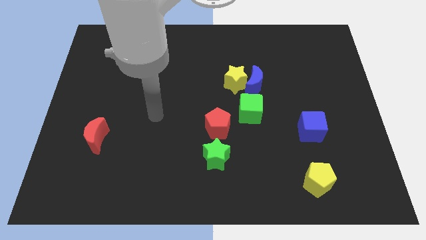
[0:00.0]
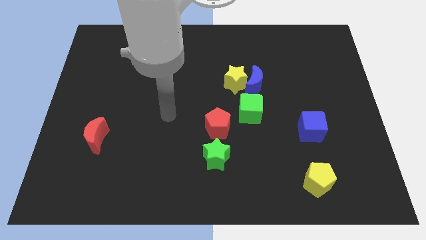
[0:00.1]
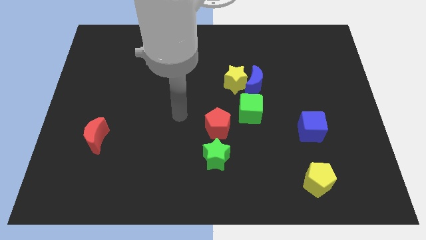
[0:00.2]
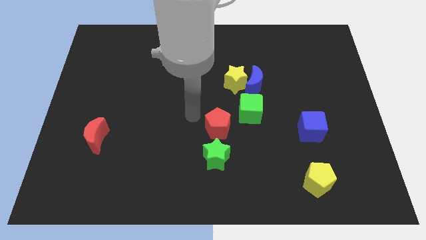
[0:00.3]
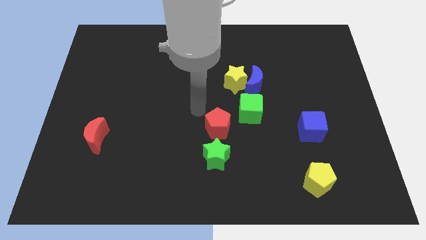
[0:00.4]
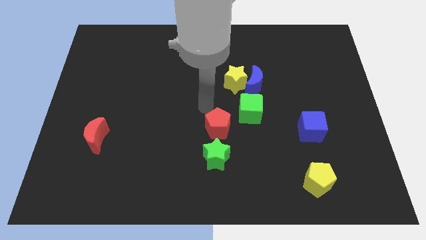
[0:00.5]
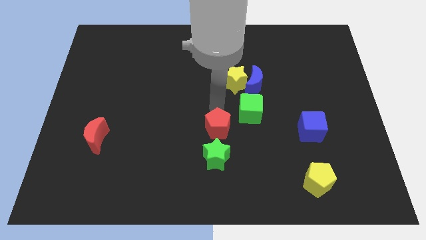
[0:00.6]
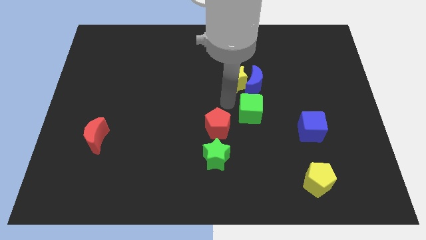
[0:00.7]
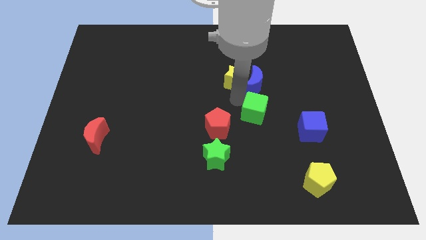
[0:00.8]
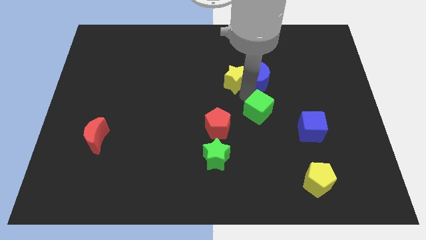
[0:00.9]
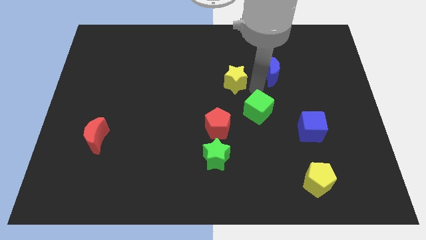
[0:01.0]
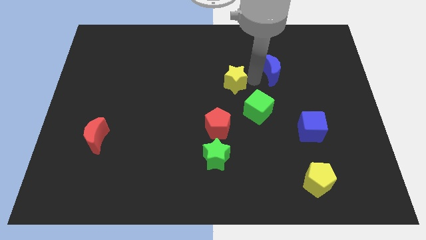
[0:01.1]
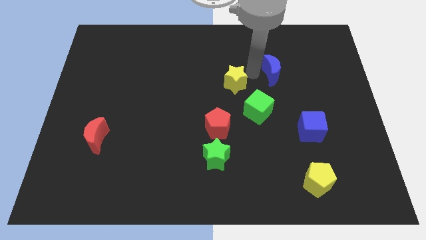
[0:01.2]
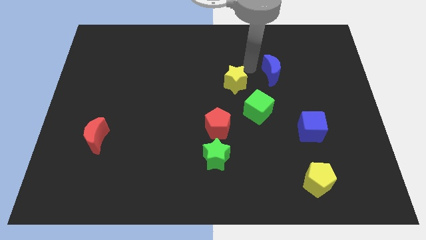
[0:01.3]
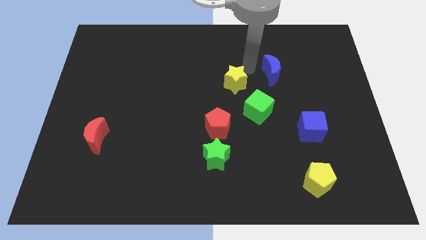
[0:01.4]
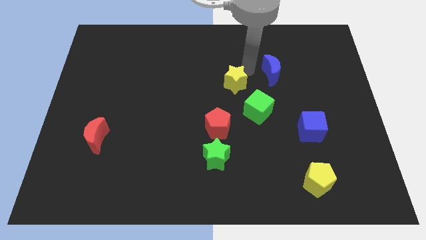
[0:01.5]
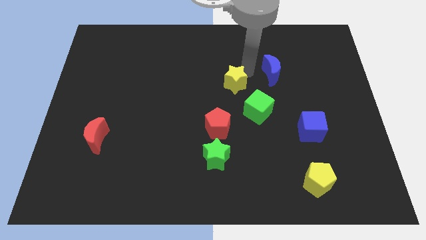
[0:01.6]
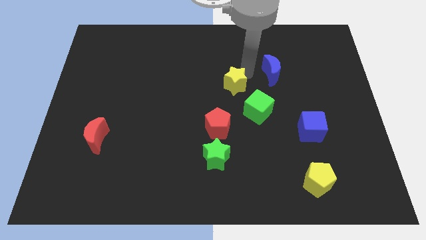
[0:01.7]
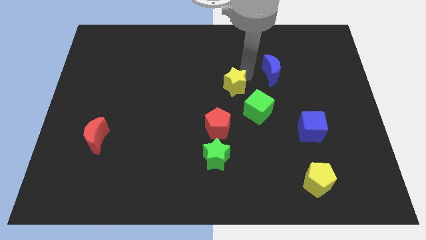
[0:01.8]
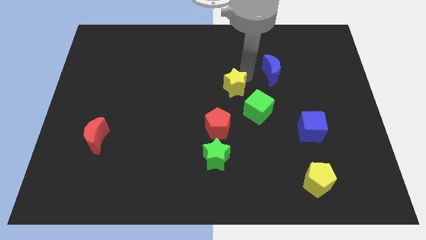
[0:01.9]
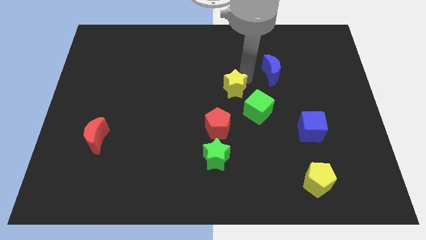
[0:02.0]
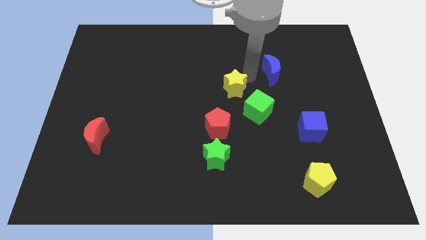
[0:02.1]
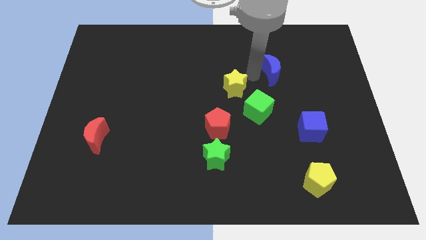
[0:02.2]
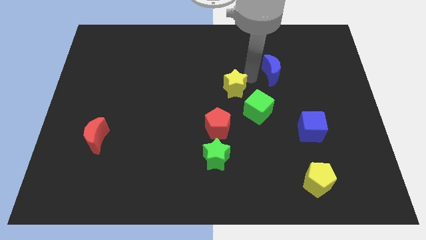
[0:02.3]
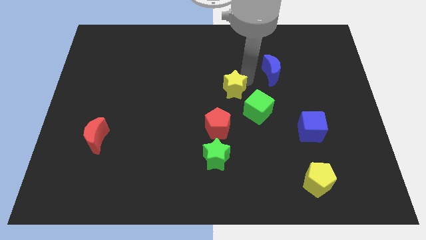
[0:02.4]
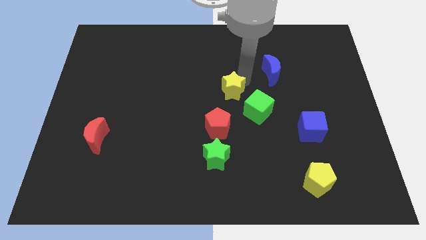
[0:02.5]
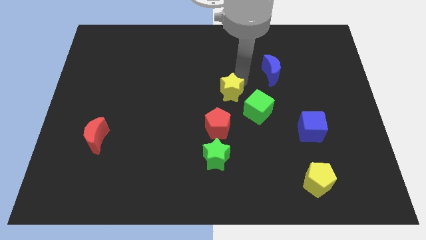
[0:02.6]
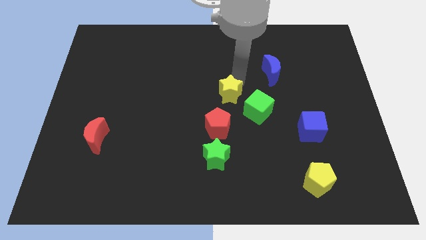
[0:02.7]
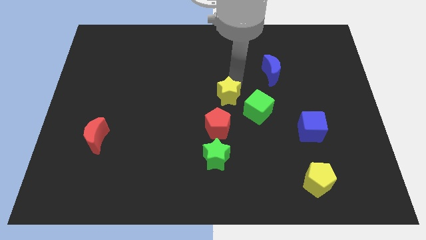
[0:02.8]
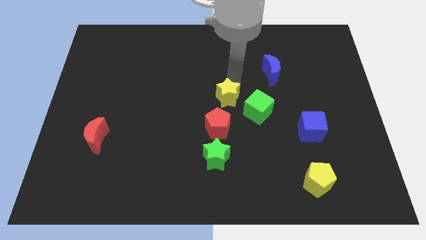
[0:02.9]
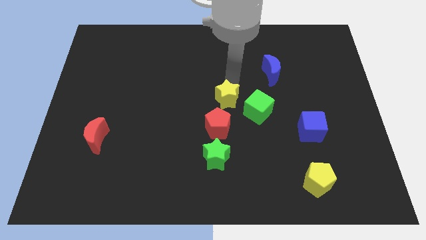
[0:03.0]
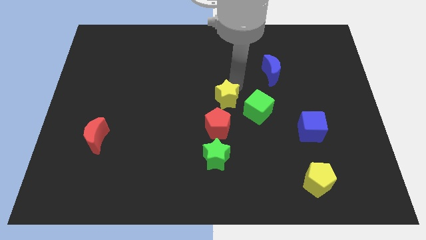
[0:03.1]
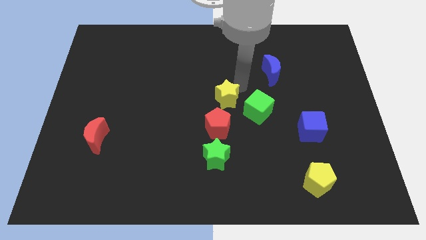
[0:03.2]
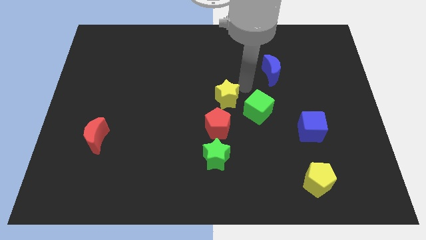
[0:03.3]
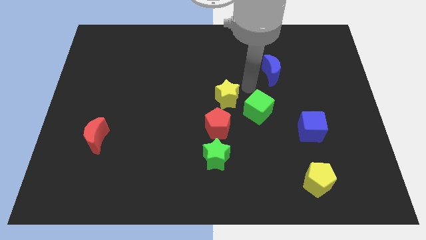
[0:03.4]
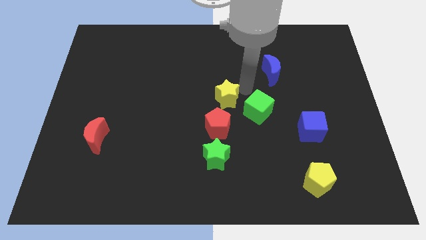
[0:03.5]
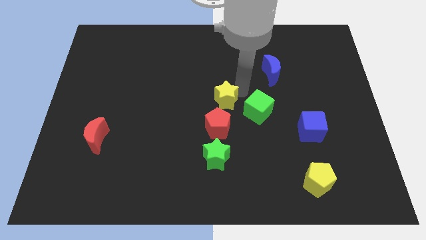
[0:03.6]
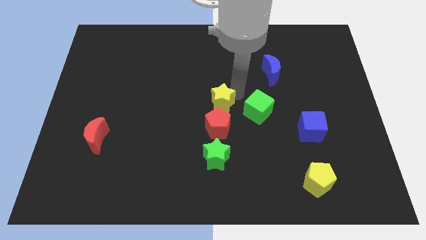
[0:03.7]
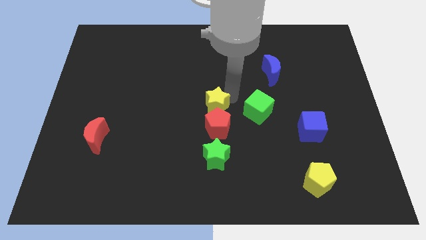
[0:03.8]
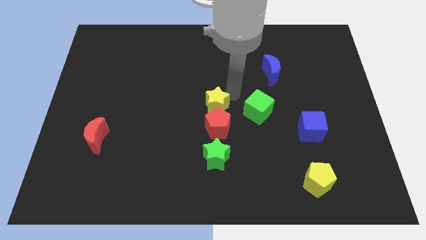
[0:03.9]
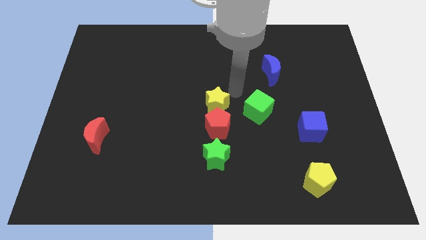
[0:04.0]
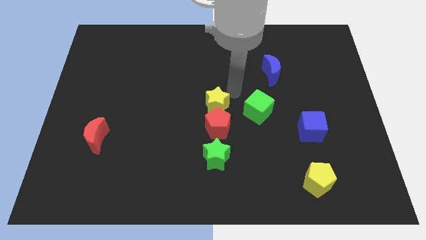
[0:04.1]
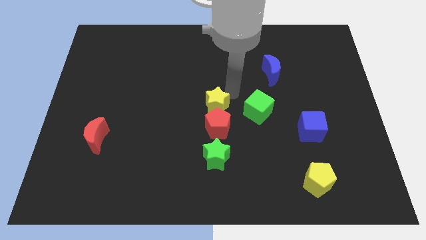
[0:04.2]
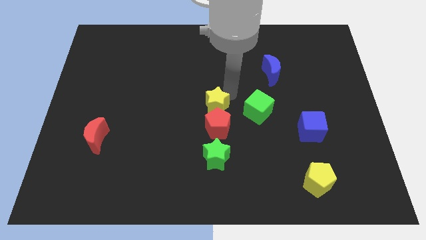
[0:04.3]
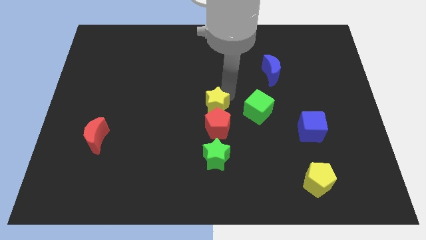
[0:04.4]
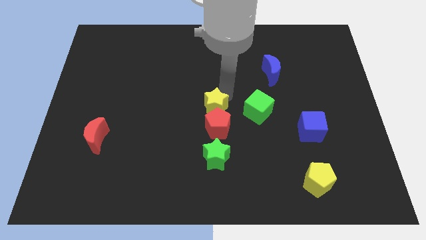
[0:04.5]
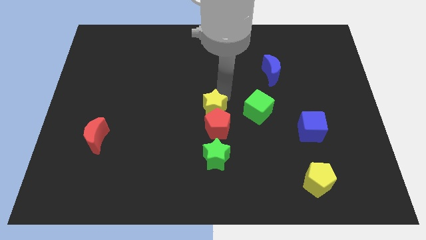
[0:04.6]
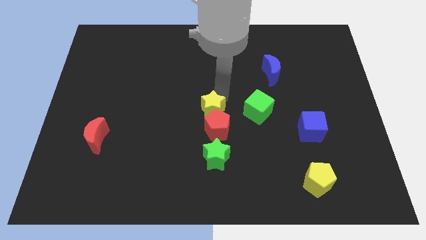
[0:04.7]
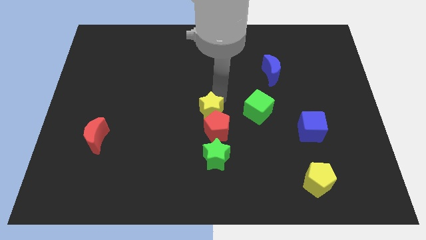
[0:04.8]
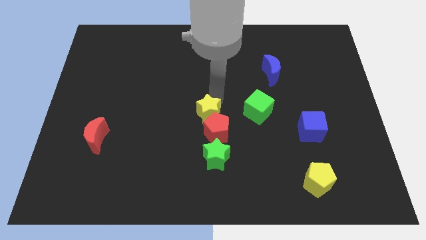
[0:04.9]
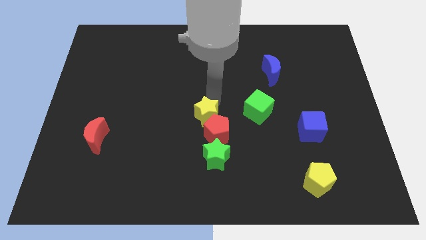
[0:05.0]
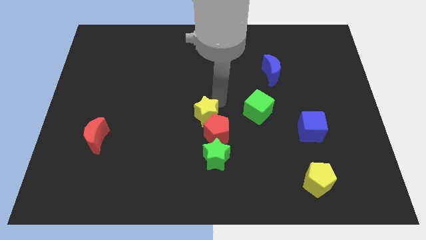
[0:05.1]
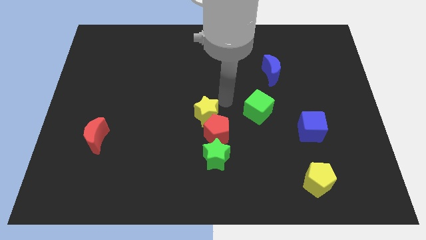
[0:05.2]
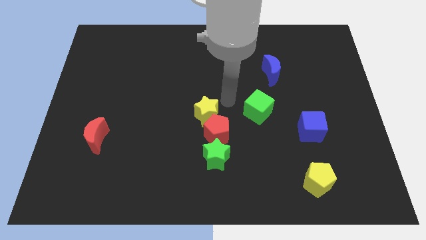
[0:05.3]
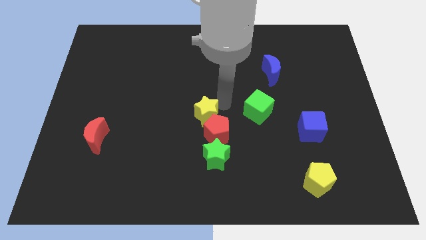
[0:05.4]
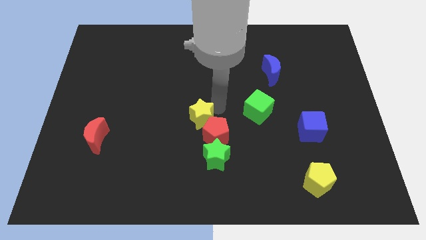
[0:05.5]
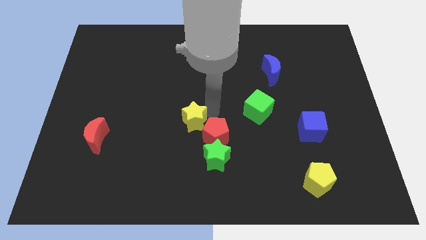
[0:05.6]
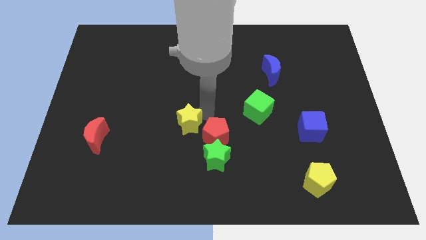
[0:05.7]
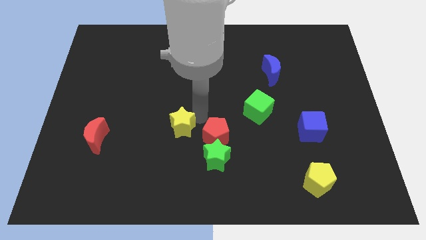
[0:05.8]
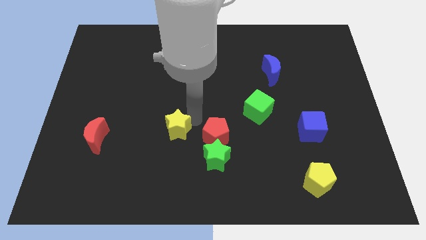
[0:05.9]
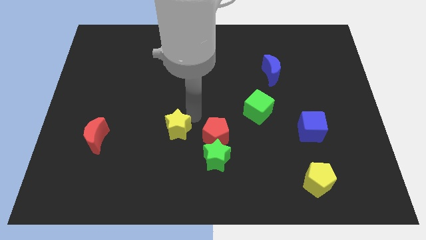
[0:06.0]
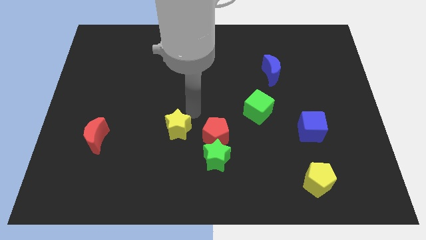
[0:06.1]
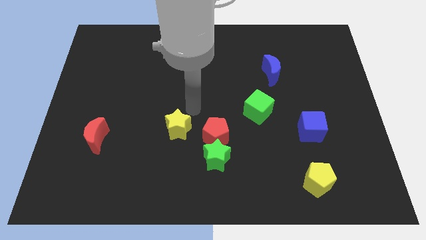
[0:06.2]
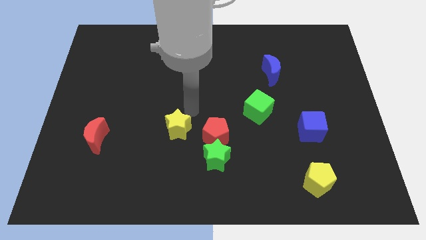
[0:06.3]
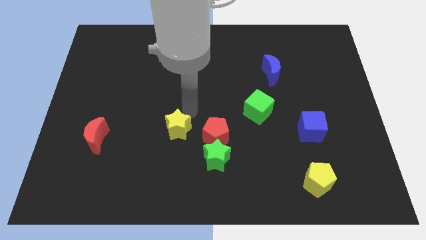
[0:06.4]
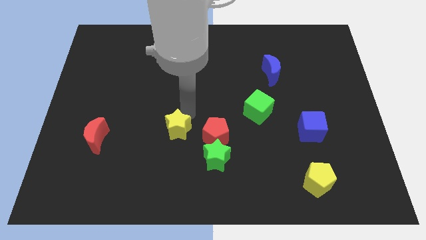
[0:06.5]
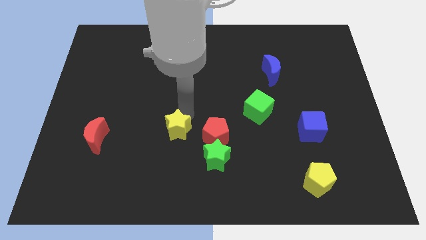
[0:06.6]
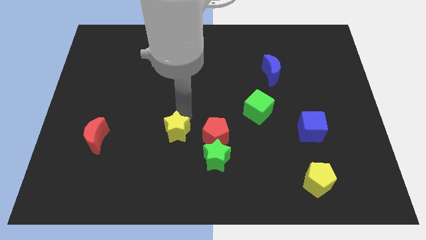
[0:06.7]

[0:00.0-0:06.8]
slide the yellow star down and left diagonally

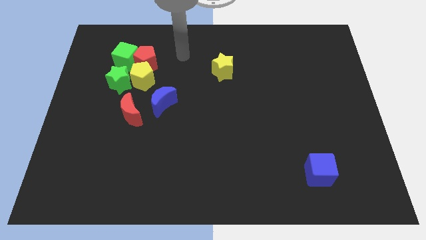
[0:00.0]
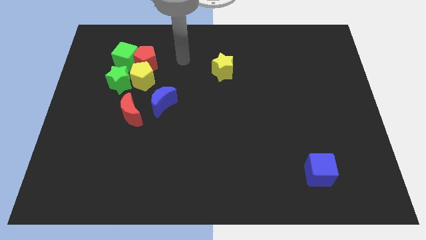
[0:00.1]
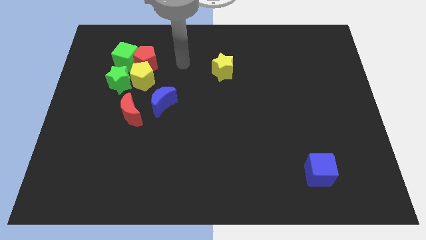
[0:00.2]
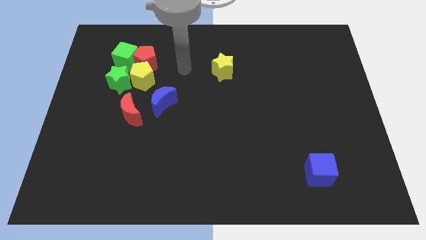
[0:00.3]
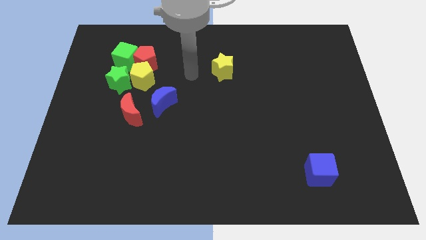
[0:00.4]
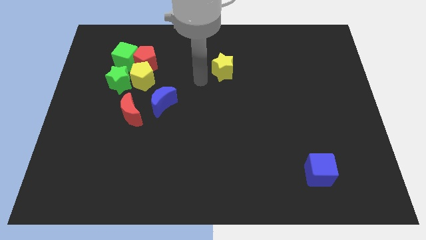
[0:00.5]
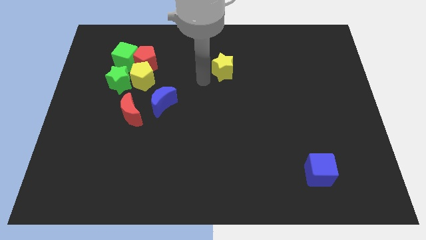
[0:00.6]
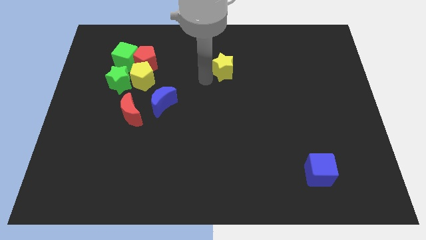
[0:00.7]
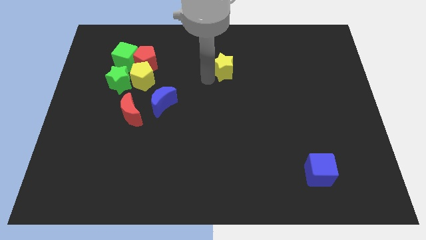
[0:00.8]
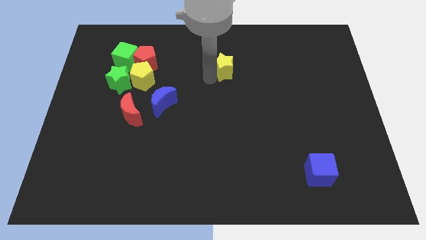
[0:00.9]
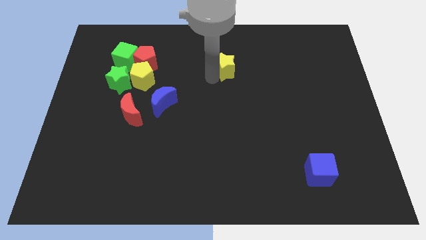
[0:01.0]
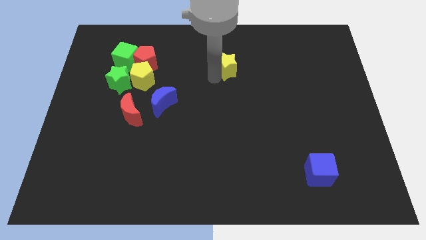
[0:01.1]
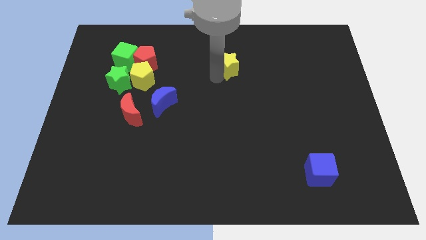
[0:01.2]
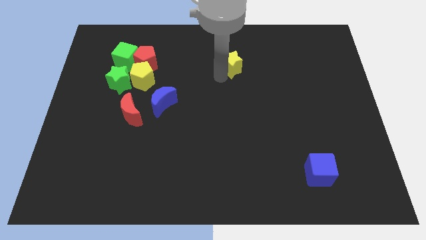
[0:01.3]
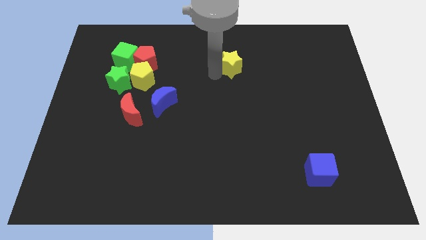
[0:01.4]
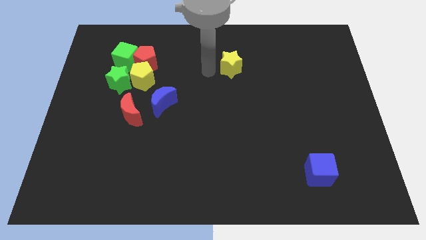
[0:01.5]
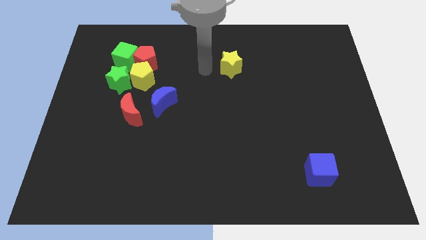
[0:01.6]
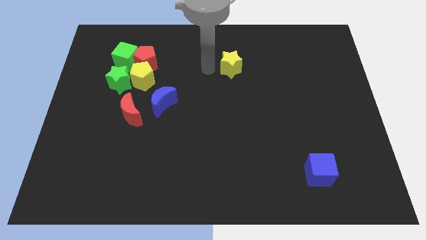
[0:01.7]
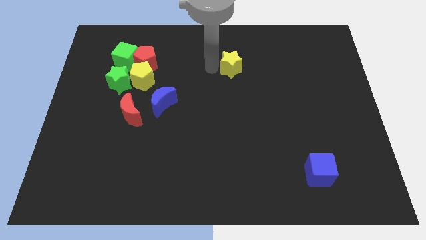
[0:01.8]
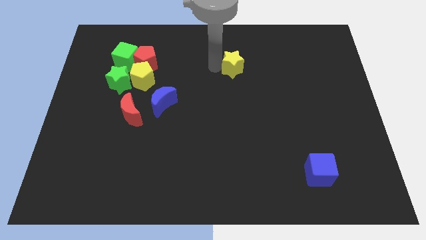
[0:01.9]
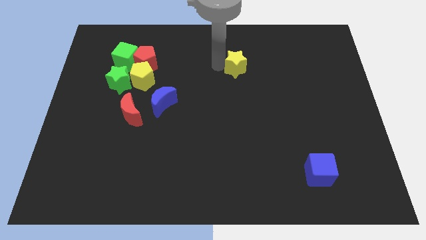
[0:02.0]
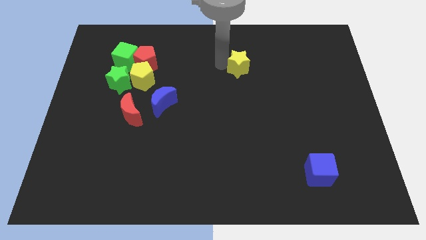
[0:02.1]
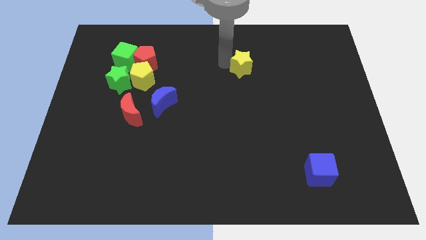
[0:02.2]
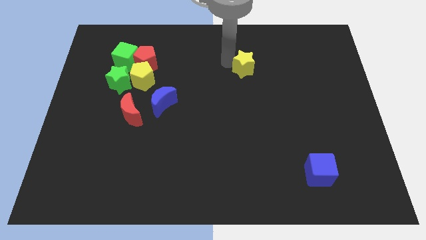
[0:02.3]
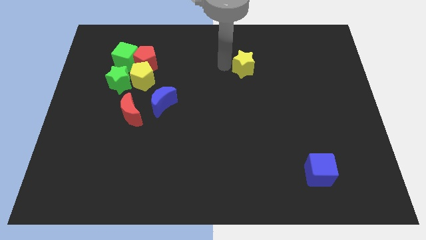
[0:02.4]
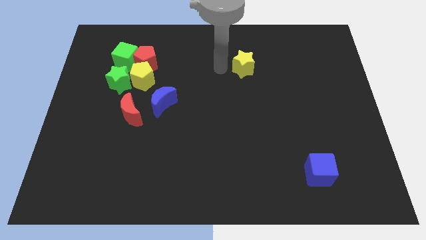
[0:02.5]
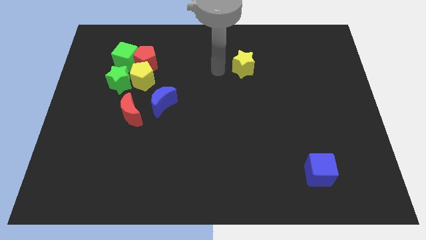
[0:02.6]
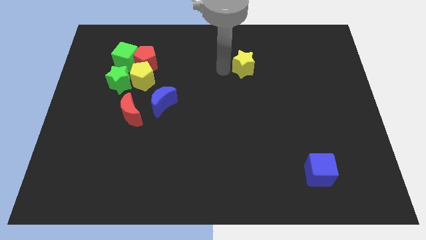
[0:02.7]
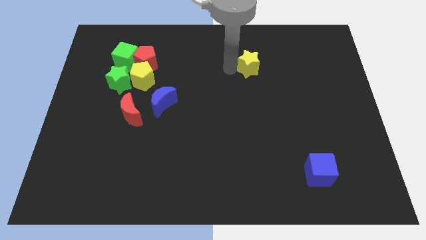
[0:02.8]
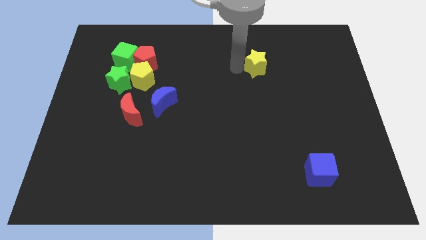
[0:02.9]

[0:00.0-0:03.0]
slightly slide the yellow star right
